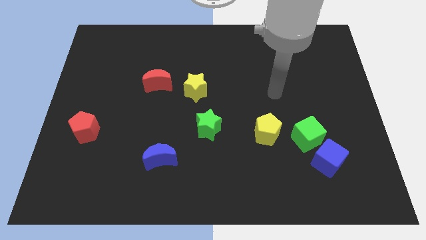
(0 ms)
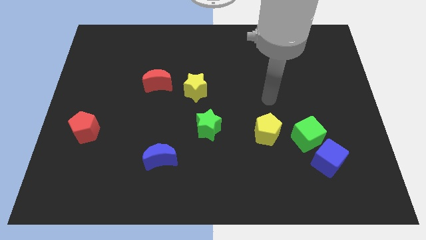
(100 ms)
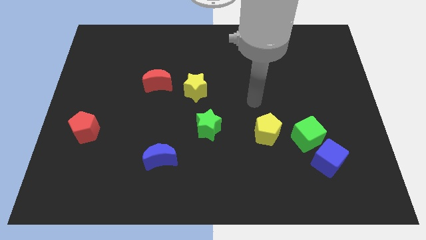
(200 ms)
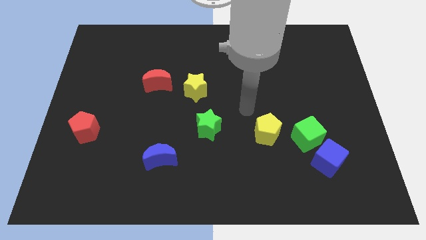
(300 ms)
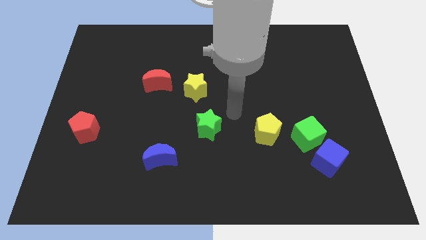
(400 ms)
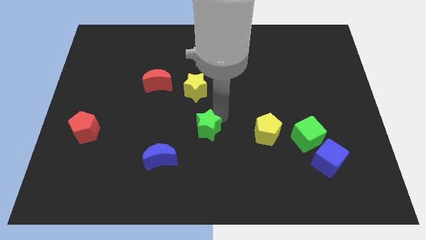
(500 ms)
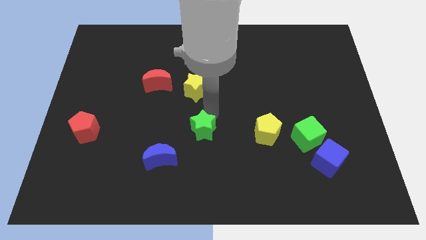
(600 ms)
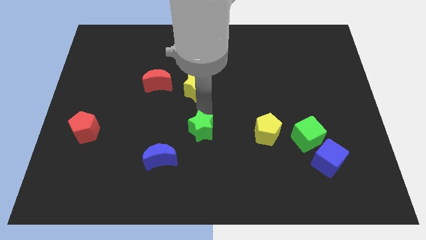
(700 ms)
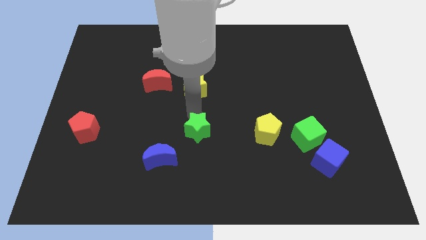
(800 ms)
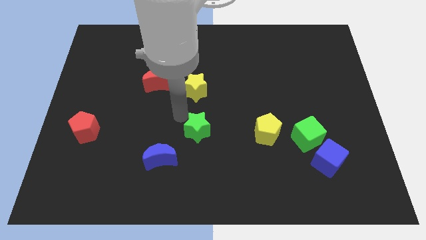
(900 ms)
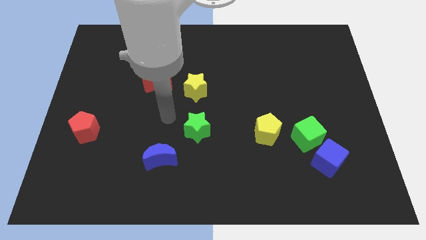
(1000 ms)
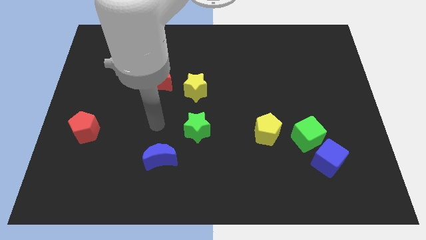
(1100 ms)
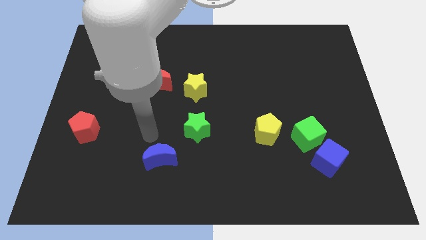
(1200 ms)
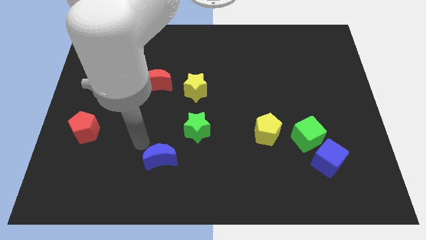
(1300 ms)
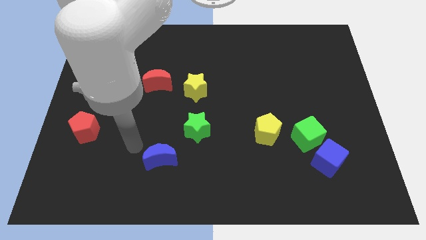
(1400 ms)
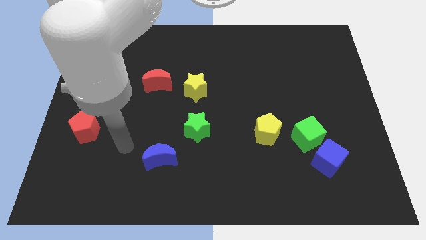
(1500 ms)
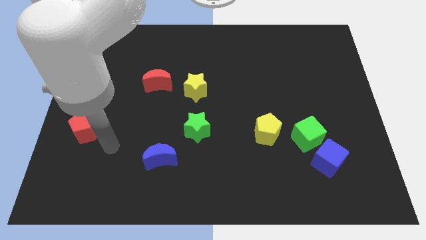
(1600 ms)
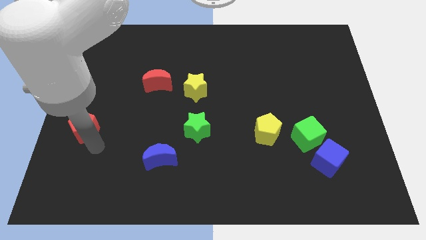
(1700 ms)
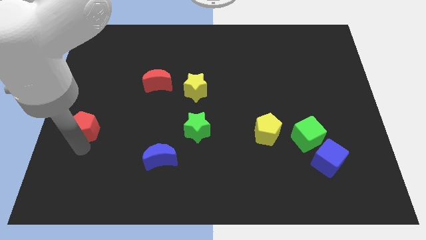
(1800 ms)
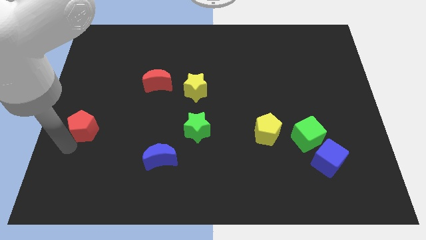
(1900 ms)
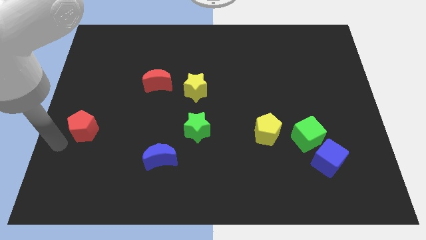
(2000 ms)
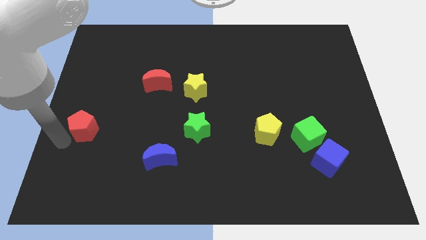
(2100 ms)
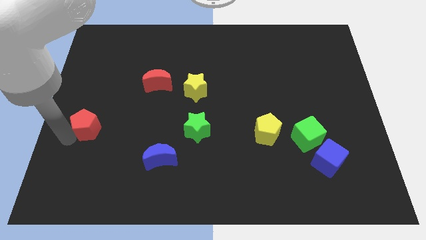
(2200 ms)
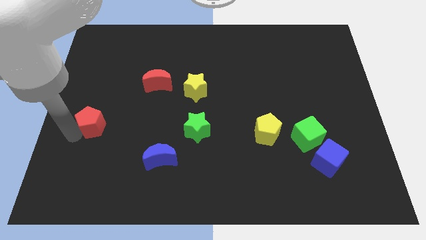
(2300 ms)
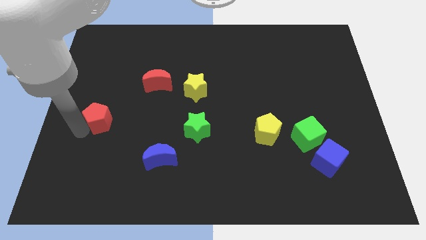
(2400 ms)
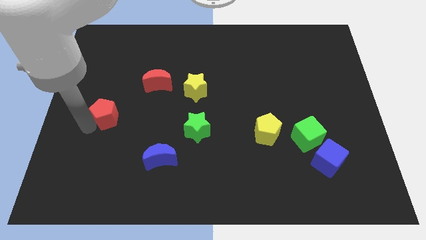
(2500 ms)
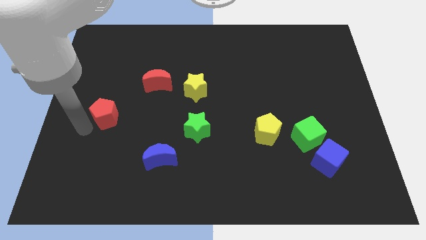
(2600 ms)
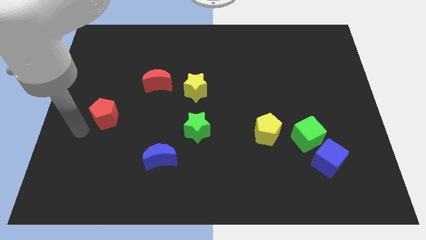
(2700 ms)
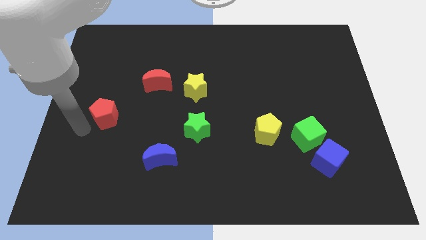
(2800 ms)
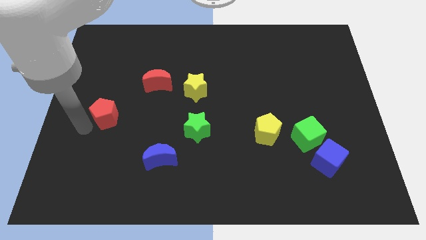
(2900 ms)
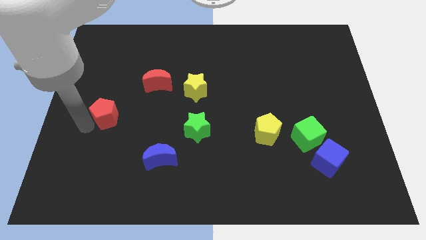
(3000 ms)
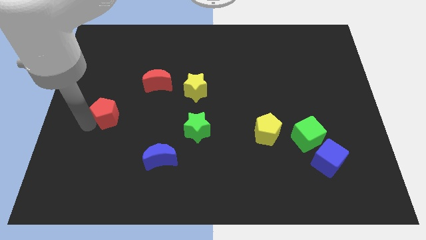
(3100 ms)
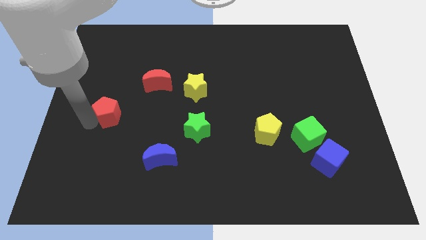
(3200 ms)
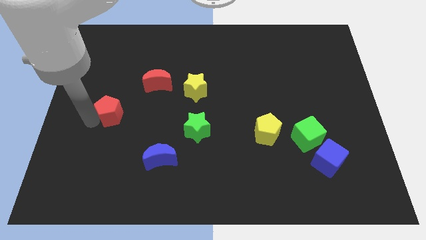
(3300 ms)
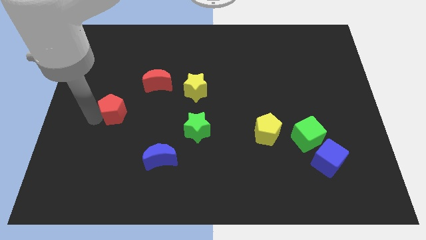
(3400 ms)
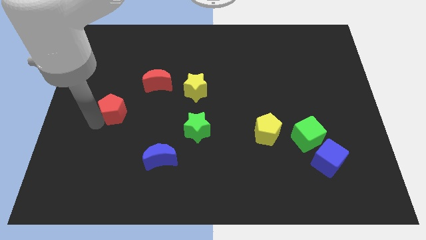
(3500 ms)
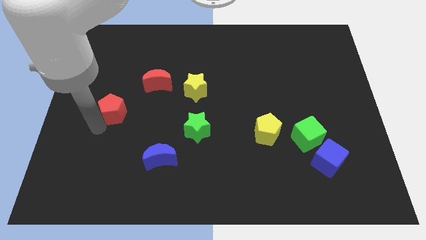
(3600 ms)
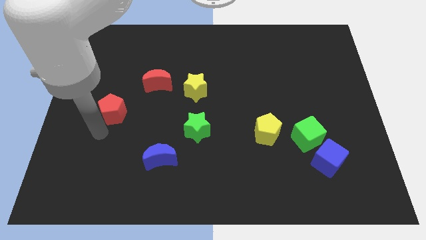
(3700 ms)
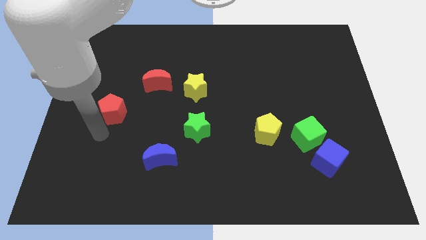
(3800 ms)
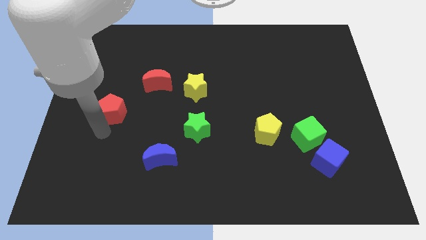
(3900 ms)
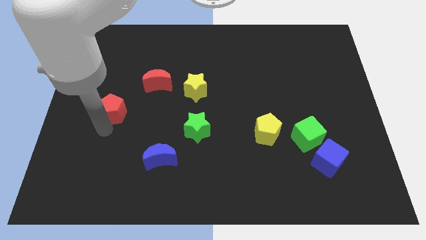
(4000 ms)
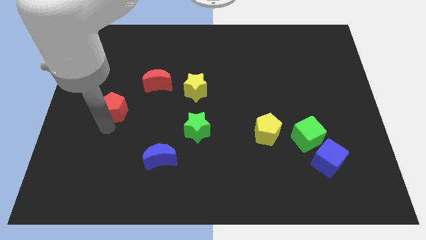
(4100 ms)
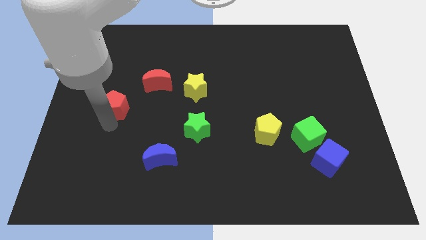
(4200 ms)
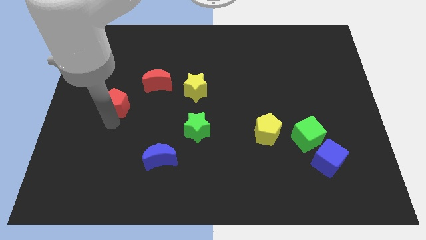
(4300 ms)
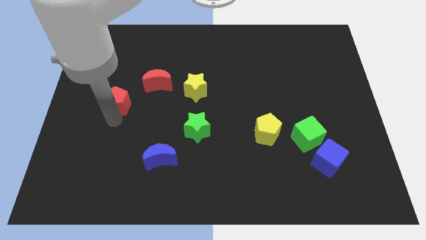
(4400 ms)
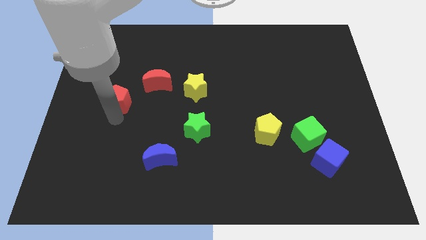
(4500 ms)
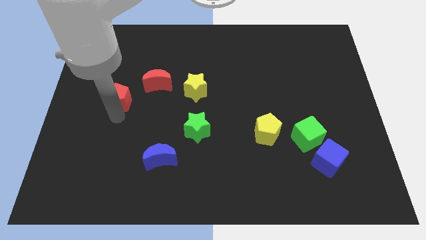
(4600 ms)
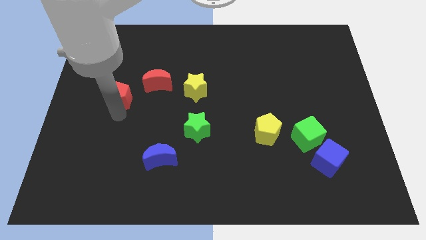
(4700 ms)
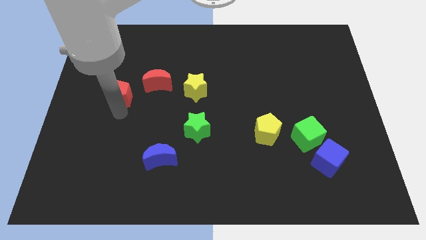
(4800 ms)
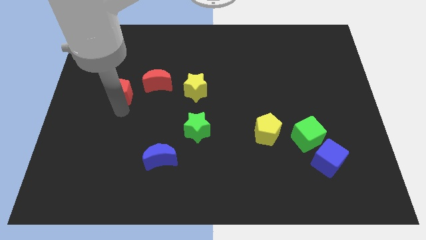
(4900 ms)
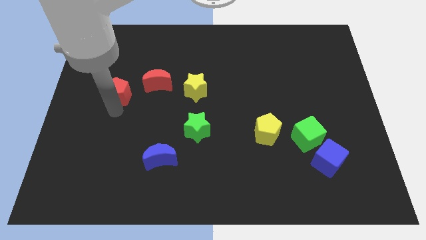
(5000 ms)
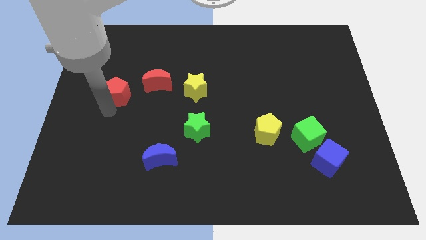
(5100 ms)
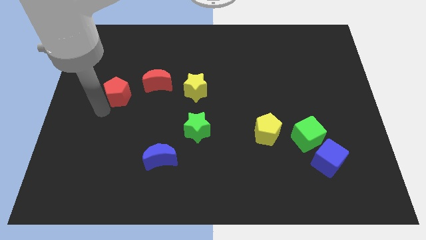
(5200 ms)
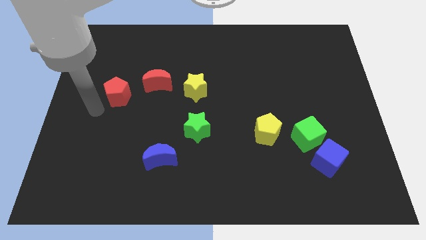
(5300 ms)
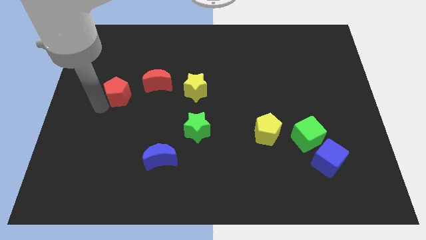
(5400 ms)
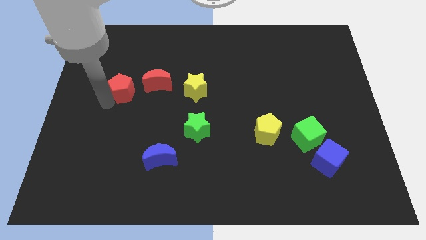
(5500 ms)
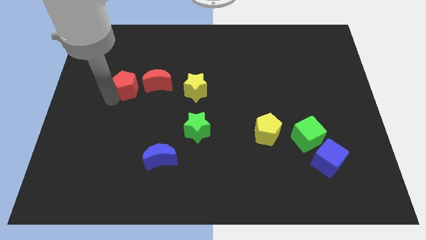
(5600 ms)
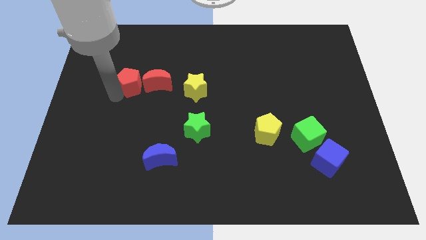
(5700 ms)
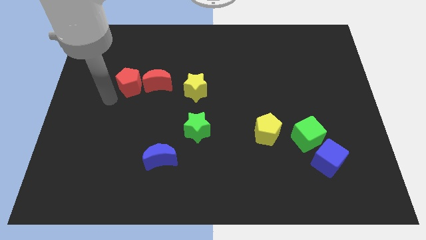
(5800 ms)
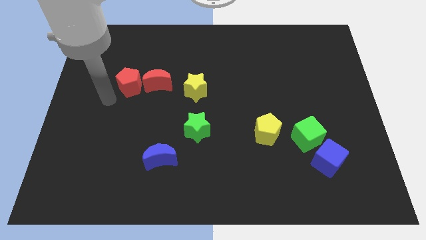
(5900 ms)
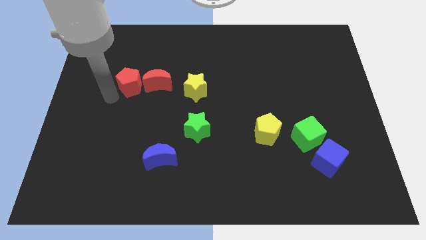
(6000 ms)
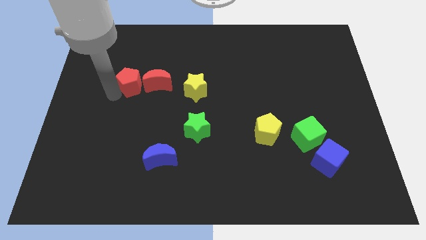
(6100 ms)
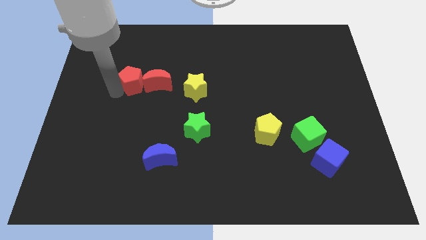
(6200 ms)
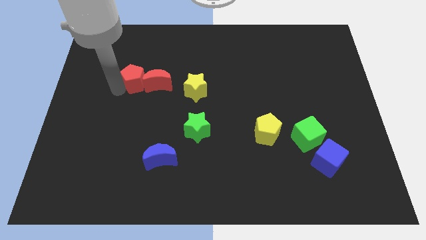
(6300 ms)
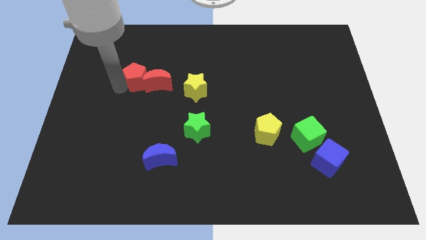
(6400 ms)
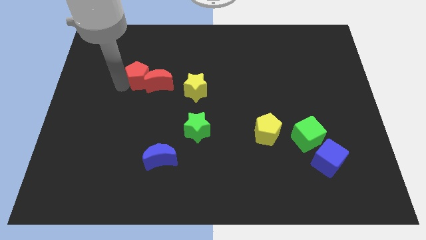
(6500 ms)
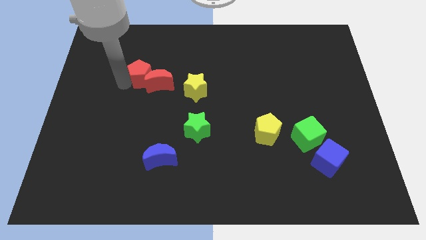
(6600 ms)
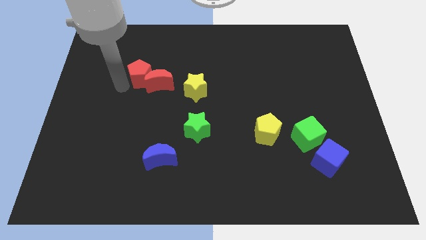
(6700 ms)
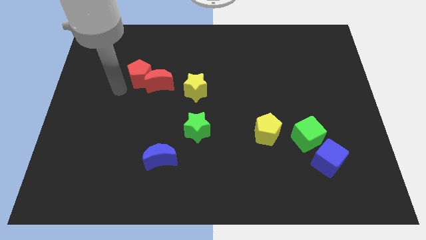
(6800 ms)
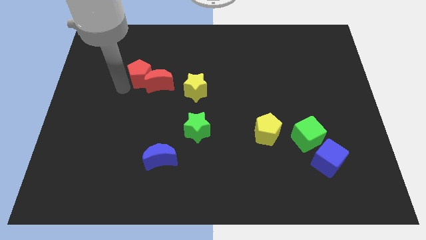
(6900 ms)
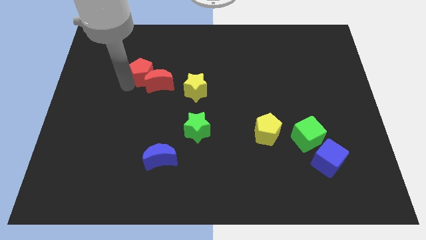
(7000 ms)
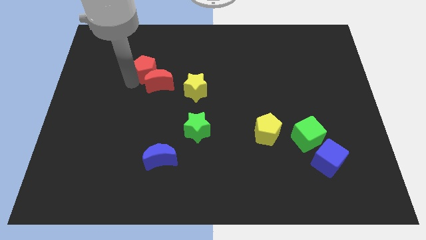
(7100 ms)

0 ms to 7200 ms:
push the red pentagon upwards and then to the right

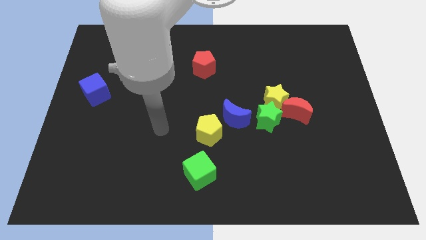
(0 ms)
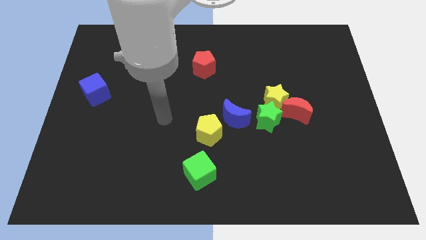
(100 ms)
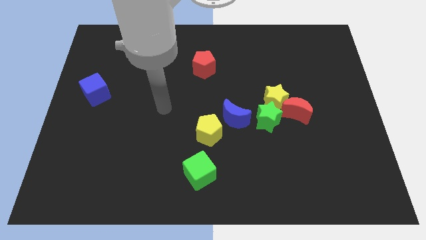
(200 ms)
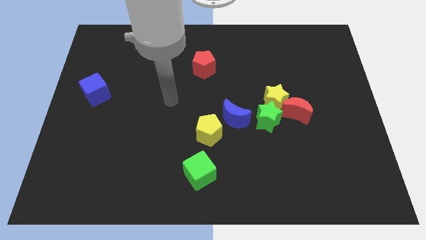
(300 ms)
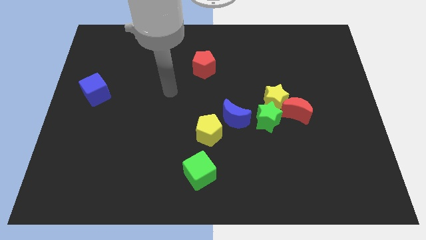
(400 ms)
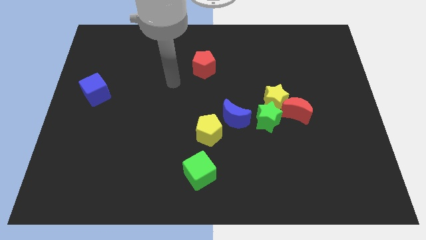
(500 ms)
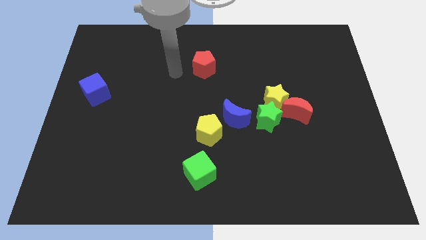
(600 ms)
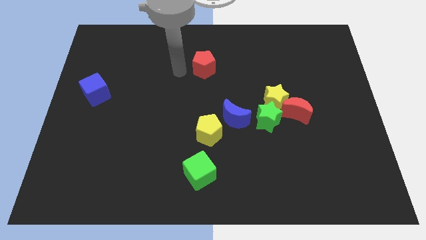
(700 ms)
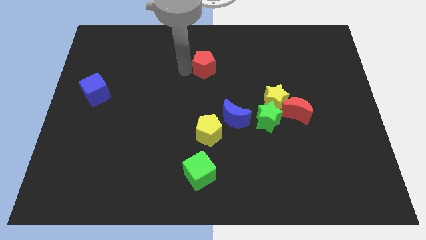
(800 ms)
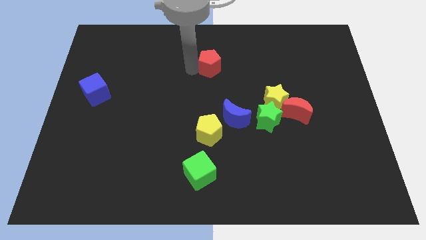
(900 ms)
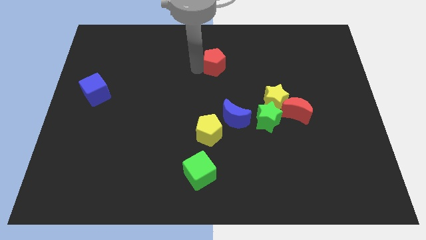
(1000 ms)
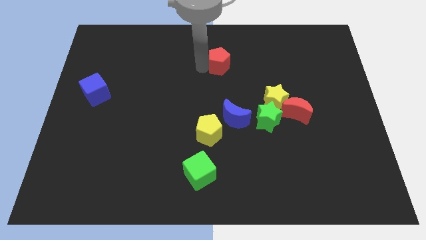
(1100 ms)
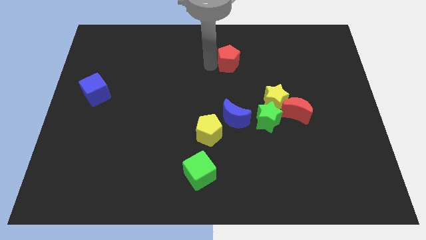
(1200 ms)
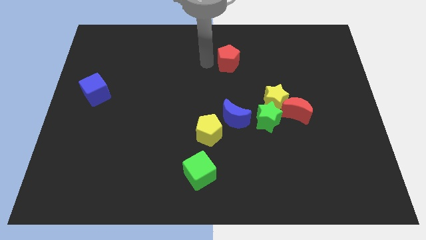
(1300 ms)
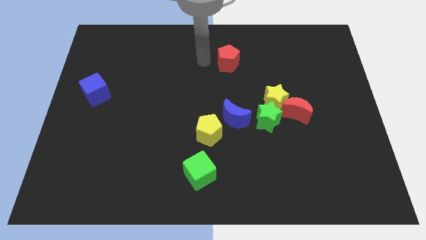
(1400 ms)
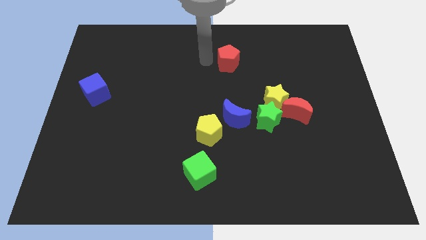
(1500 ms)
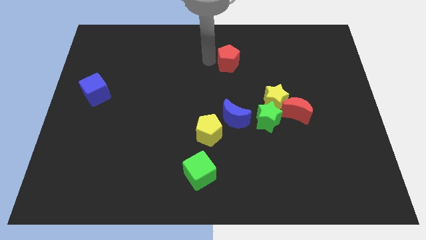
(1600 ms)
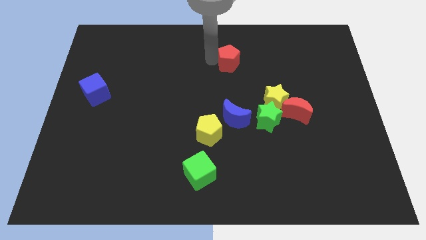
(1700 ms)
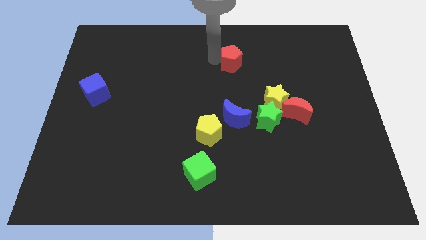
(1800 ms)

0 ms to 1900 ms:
move the red pentagon a bit right
